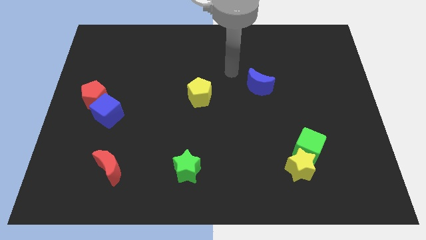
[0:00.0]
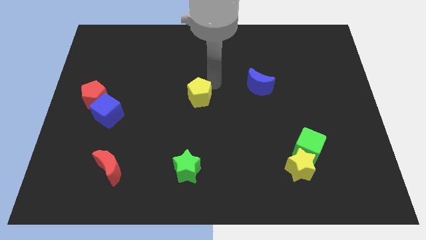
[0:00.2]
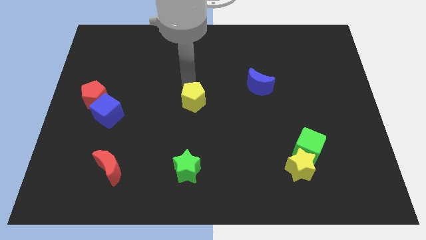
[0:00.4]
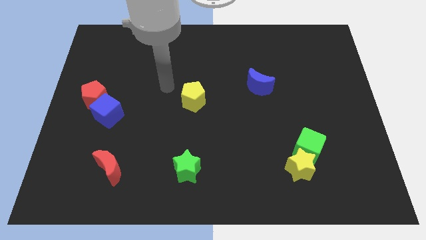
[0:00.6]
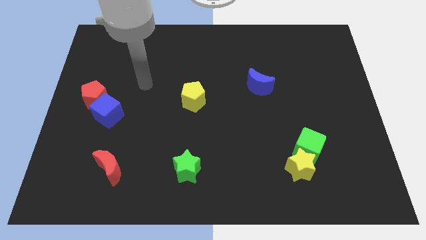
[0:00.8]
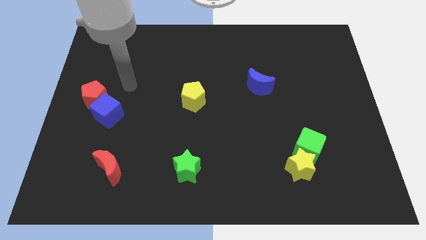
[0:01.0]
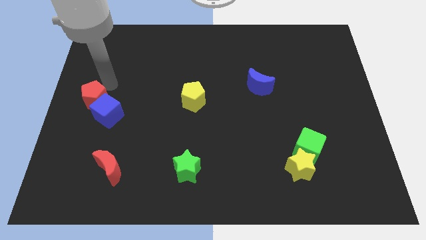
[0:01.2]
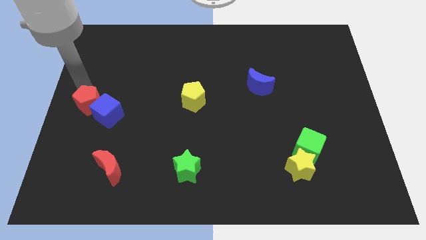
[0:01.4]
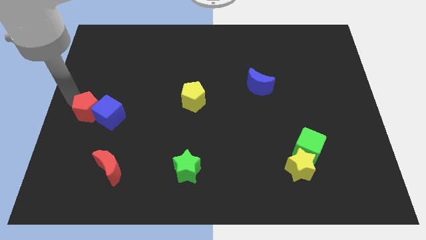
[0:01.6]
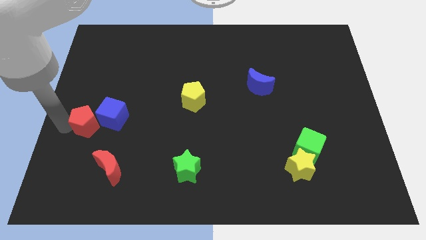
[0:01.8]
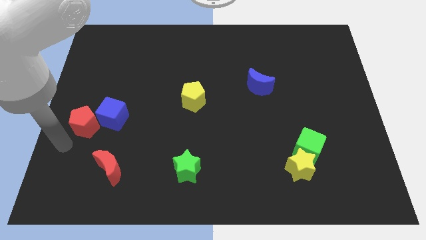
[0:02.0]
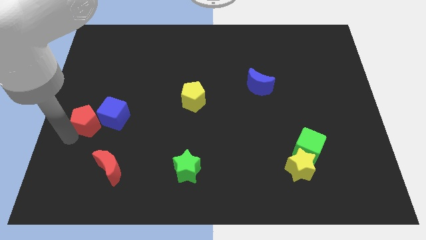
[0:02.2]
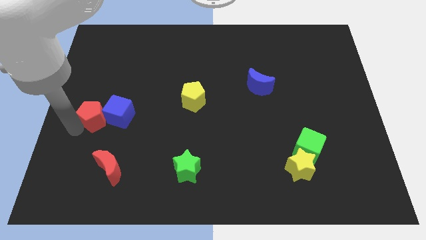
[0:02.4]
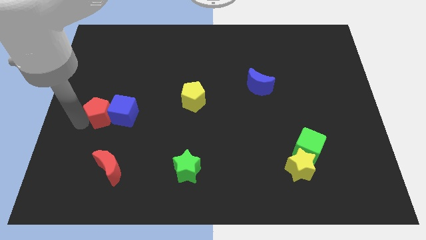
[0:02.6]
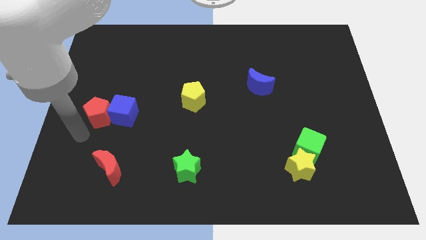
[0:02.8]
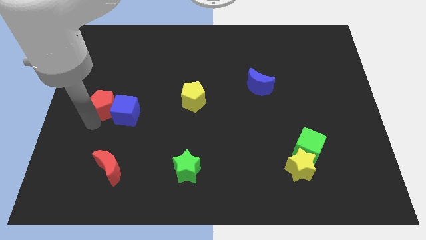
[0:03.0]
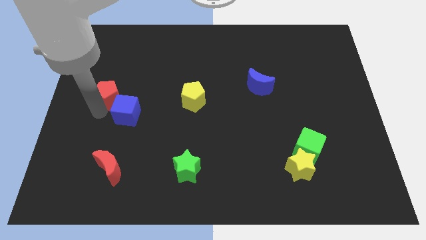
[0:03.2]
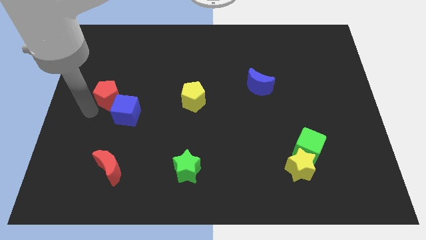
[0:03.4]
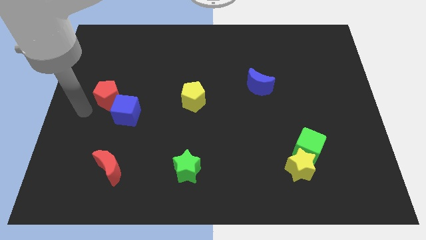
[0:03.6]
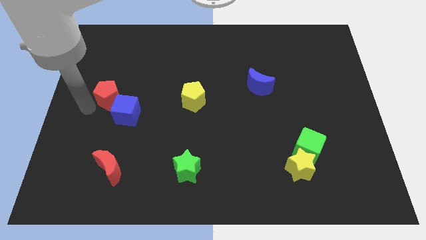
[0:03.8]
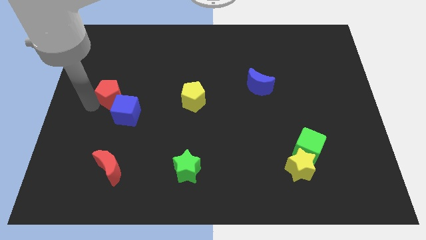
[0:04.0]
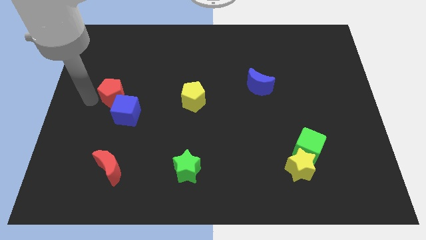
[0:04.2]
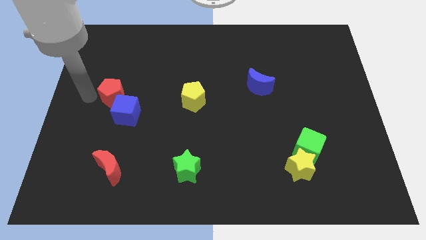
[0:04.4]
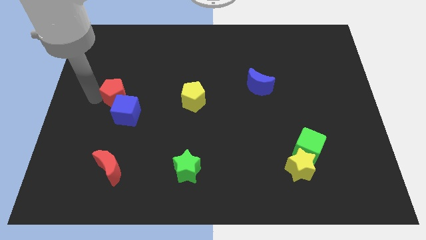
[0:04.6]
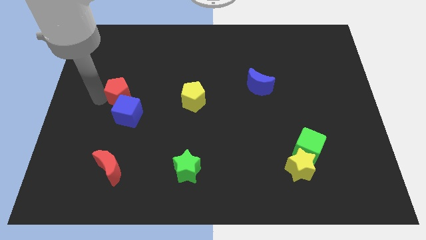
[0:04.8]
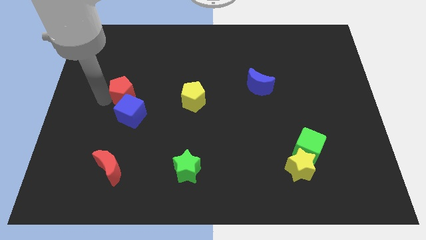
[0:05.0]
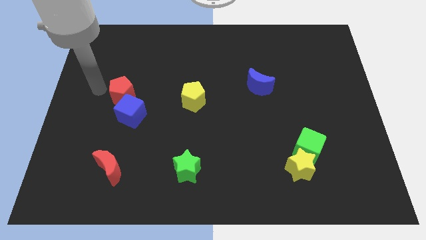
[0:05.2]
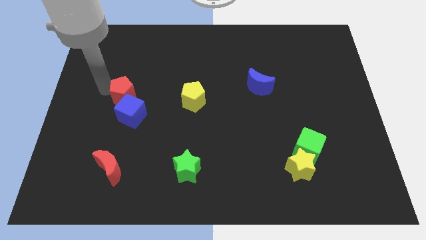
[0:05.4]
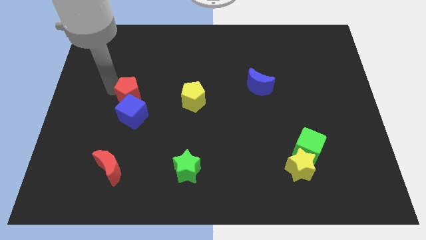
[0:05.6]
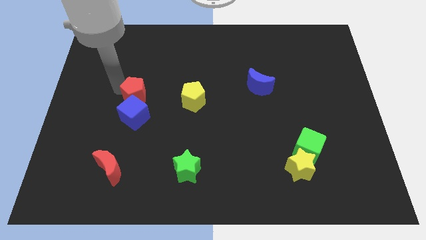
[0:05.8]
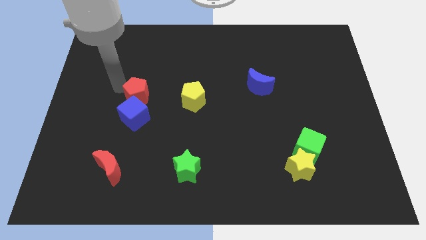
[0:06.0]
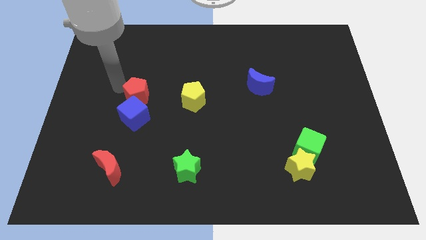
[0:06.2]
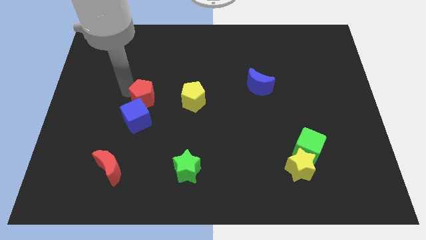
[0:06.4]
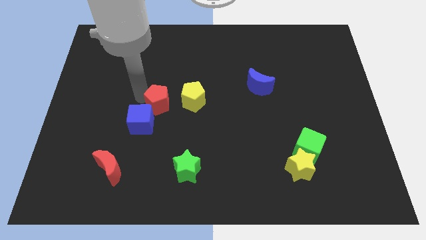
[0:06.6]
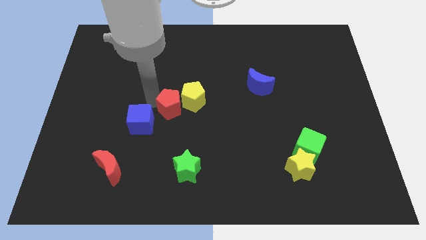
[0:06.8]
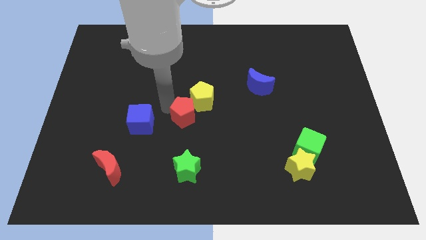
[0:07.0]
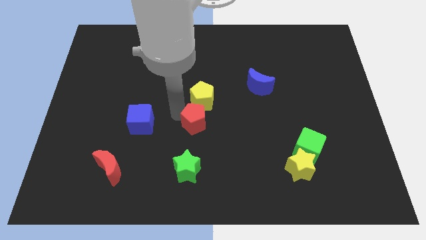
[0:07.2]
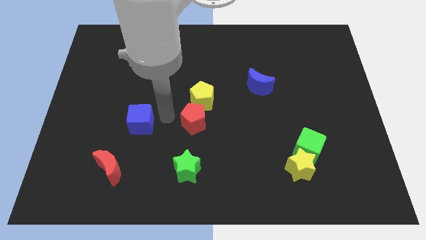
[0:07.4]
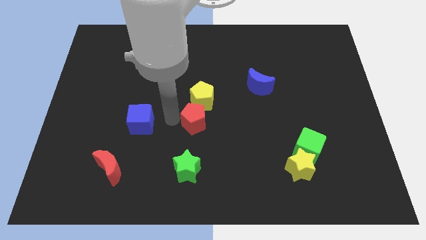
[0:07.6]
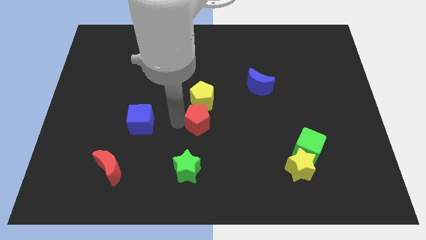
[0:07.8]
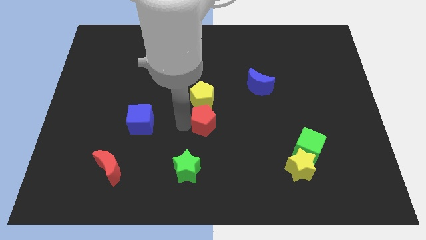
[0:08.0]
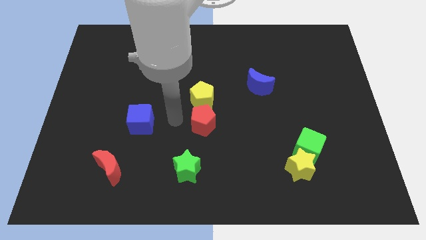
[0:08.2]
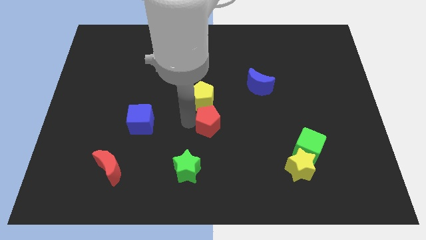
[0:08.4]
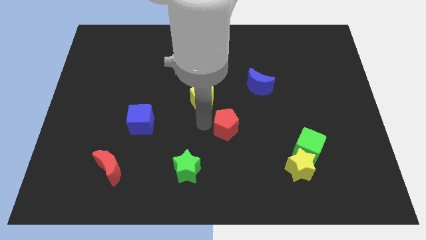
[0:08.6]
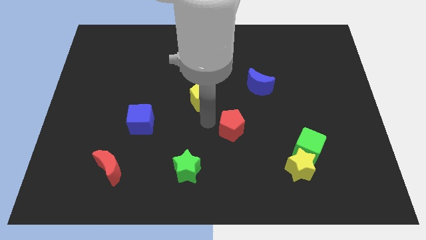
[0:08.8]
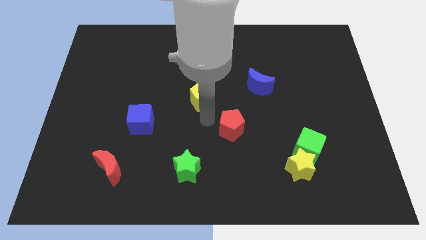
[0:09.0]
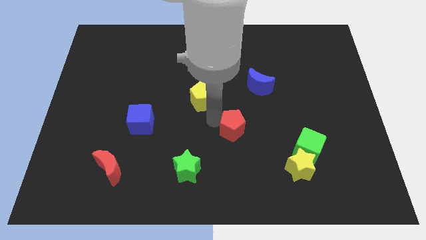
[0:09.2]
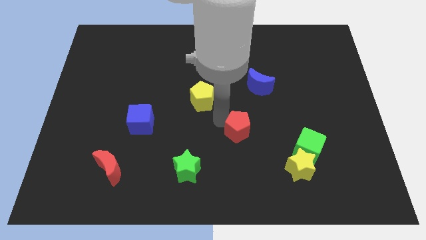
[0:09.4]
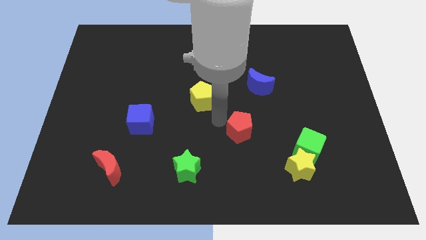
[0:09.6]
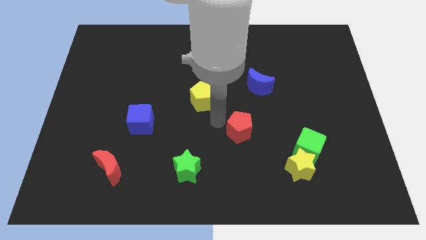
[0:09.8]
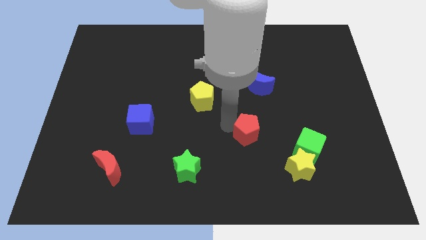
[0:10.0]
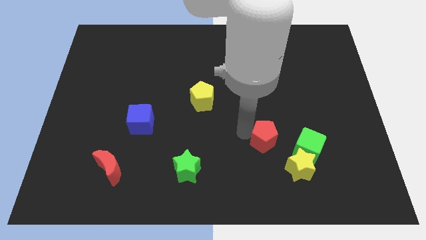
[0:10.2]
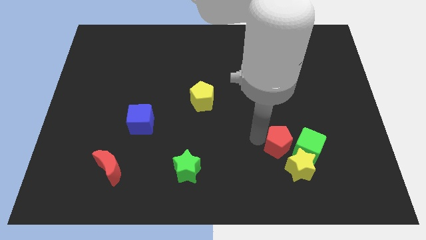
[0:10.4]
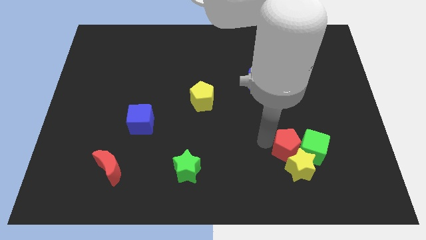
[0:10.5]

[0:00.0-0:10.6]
move the red pentagon next to the green cube

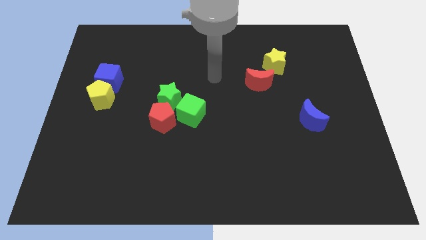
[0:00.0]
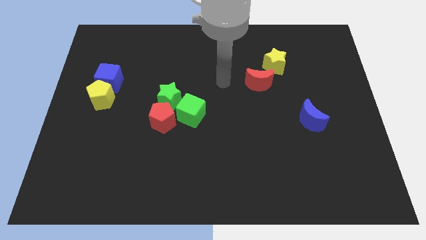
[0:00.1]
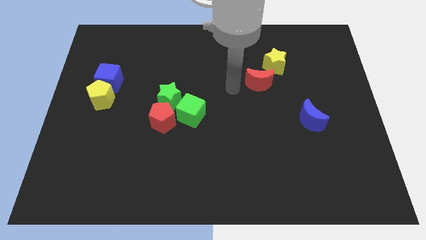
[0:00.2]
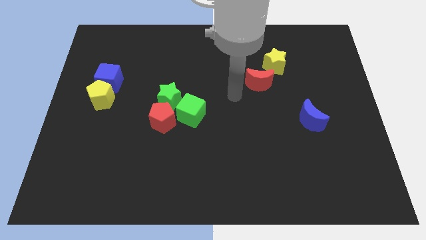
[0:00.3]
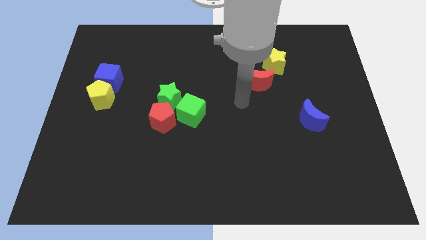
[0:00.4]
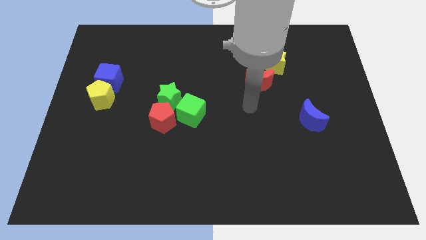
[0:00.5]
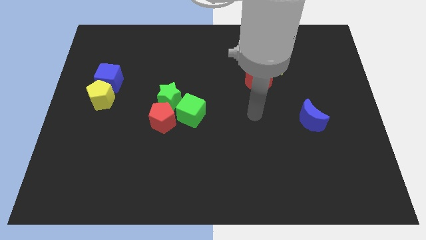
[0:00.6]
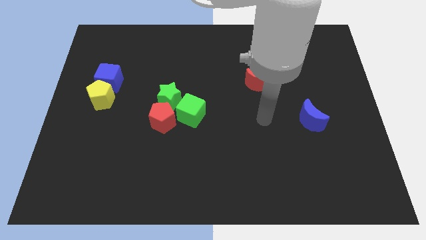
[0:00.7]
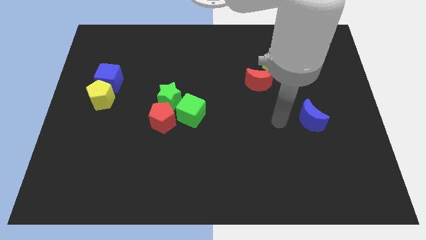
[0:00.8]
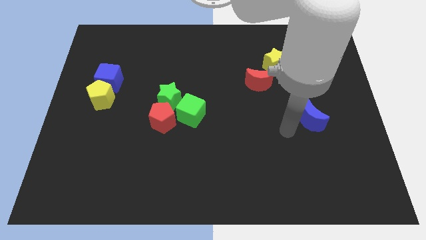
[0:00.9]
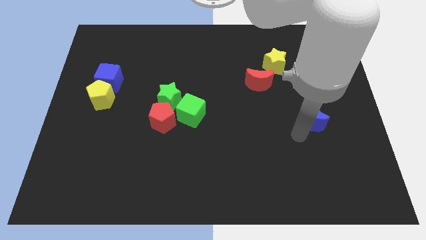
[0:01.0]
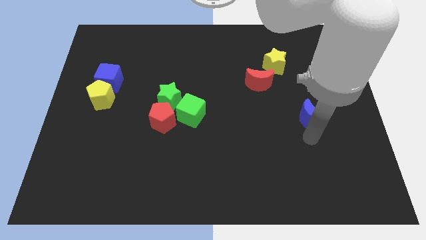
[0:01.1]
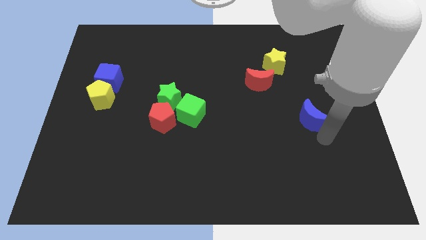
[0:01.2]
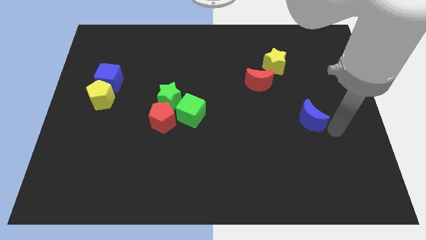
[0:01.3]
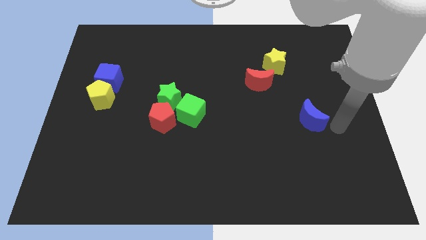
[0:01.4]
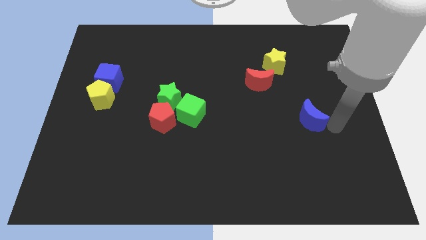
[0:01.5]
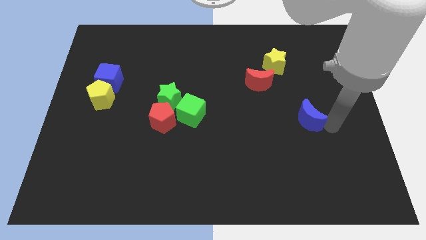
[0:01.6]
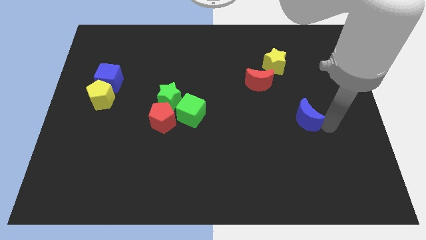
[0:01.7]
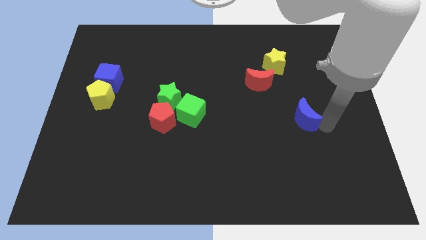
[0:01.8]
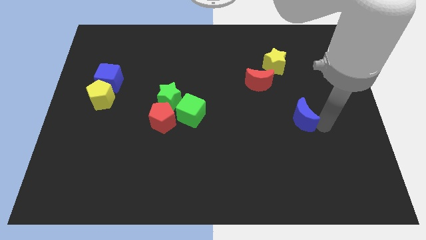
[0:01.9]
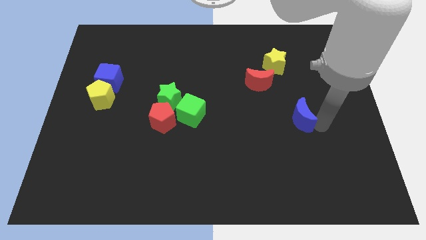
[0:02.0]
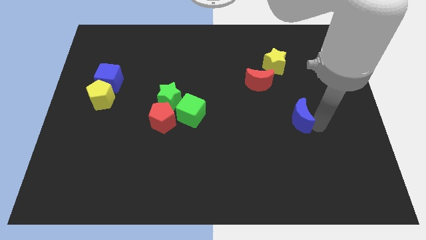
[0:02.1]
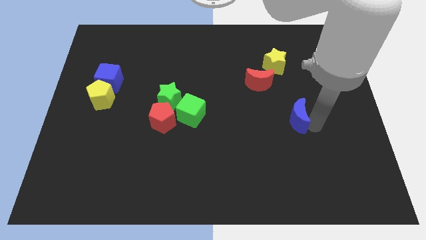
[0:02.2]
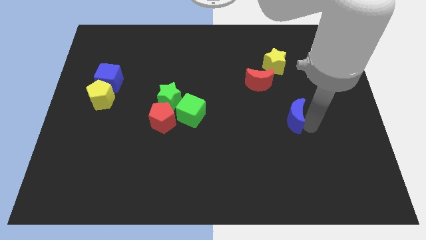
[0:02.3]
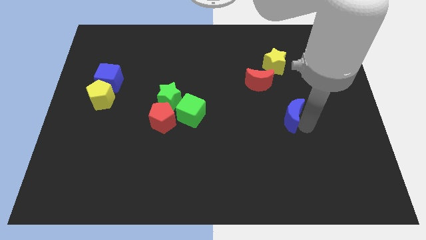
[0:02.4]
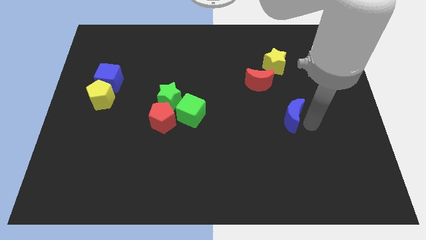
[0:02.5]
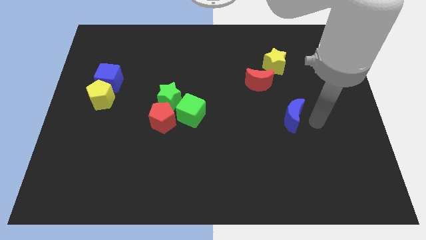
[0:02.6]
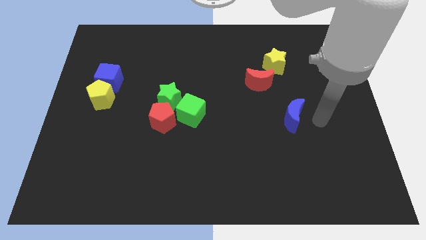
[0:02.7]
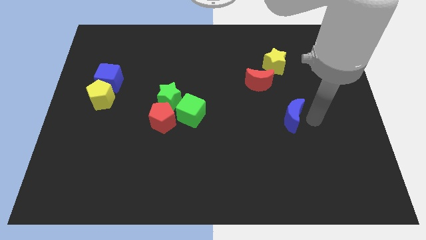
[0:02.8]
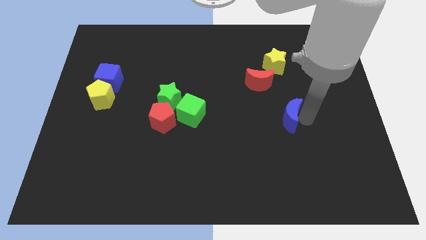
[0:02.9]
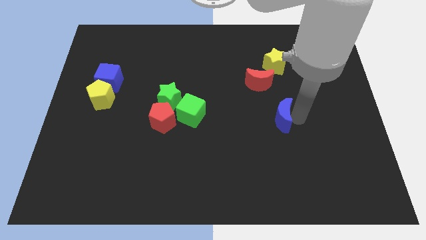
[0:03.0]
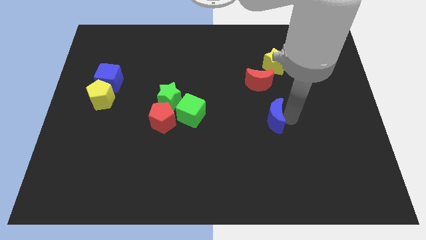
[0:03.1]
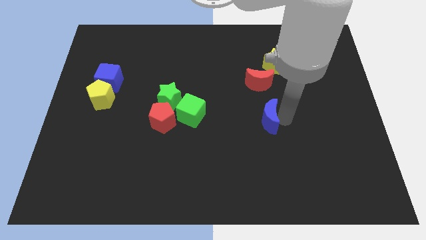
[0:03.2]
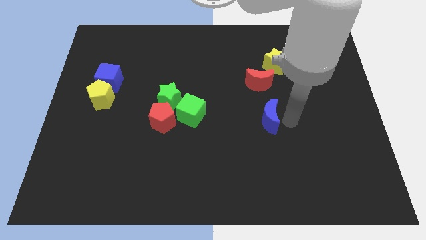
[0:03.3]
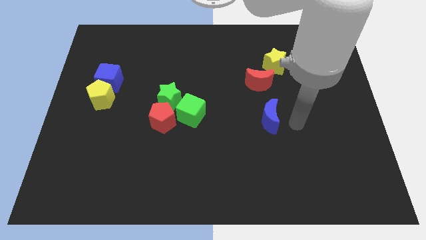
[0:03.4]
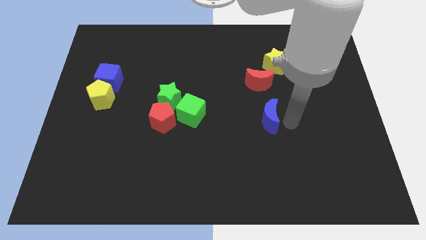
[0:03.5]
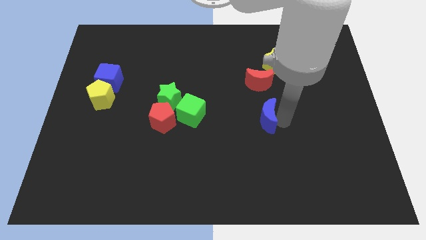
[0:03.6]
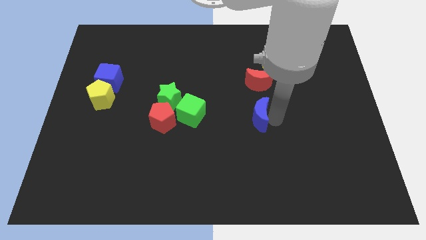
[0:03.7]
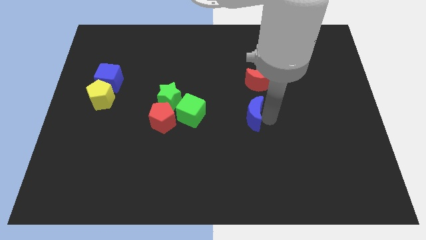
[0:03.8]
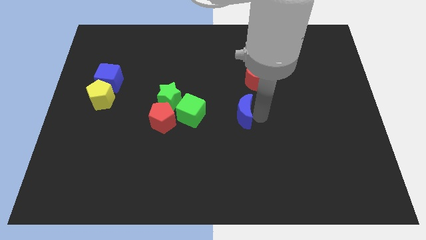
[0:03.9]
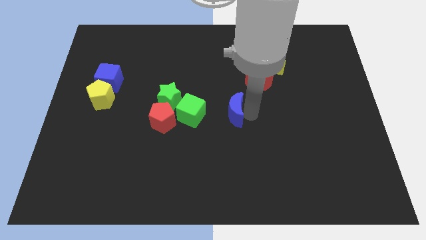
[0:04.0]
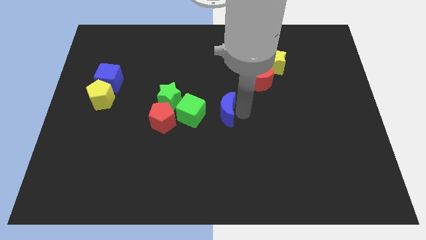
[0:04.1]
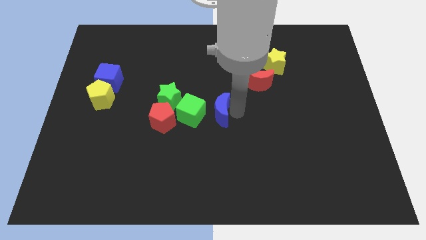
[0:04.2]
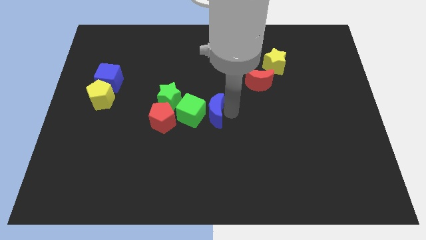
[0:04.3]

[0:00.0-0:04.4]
push the blue moon to the green cube
